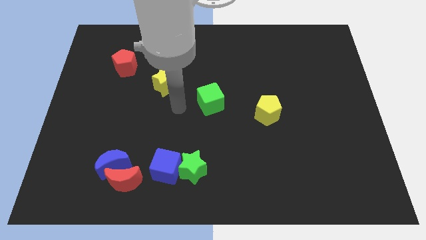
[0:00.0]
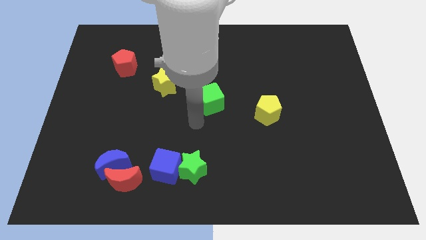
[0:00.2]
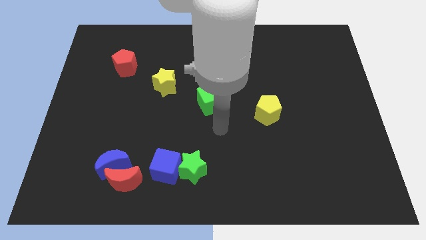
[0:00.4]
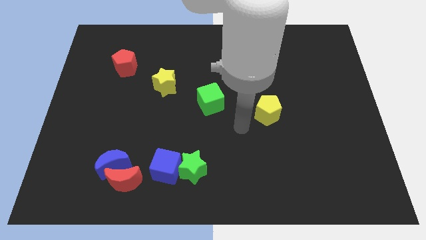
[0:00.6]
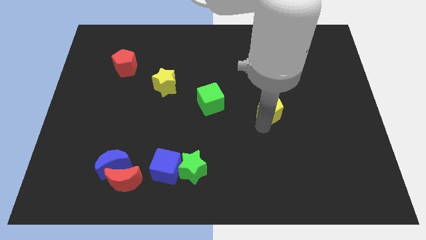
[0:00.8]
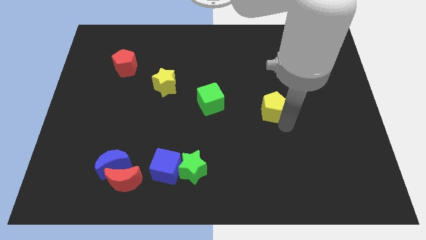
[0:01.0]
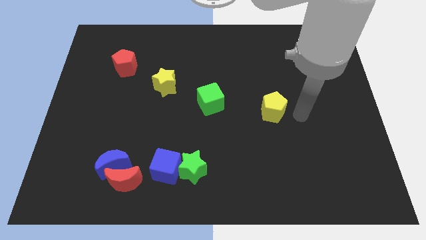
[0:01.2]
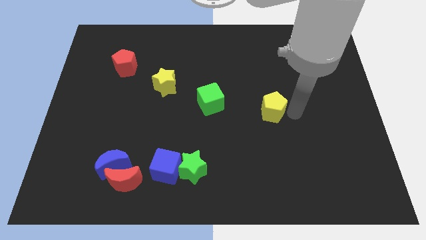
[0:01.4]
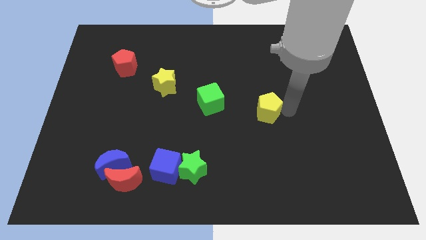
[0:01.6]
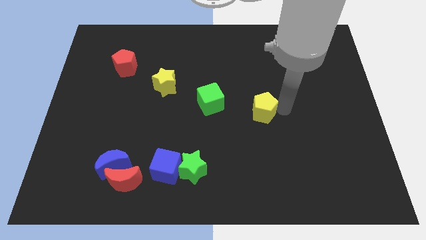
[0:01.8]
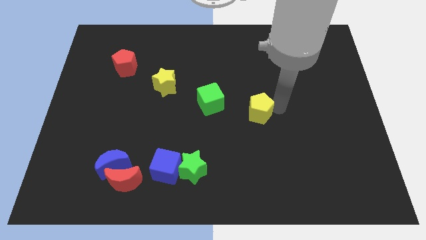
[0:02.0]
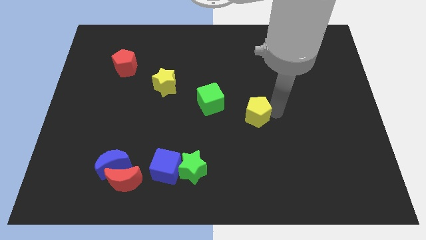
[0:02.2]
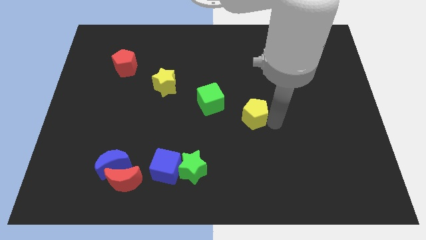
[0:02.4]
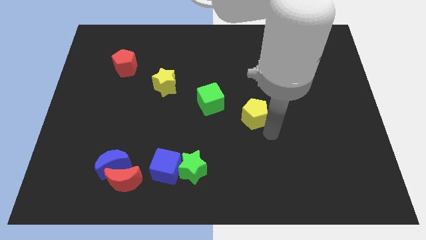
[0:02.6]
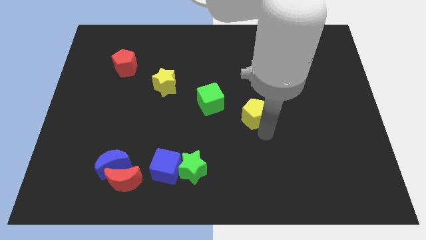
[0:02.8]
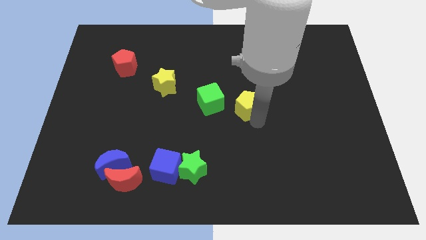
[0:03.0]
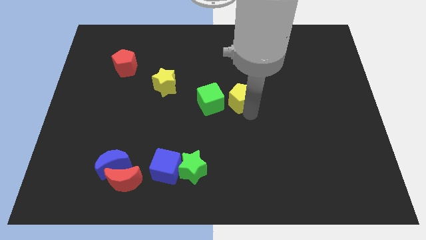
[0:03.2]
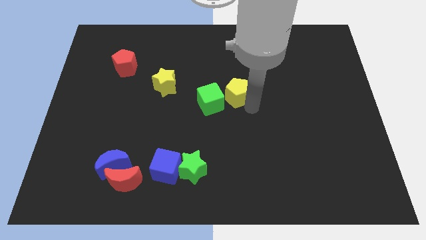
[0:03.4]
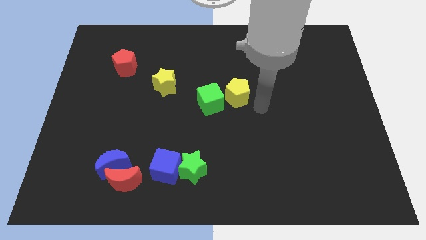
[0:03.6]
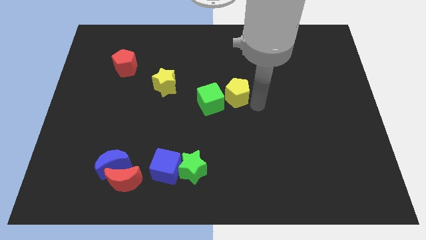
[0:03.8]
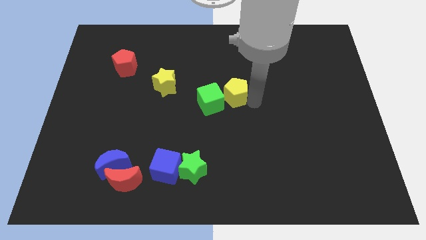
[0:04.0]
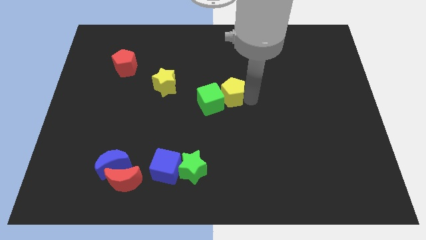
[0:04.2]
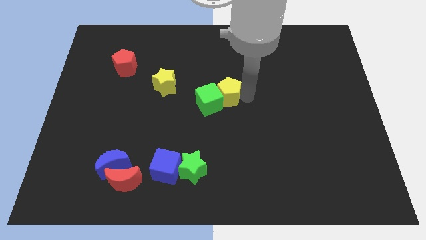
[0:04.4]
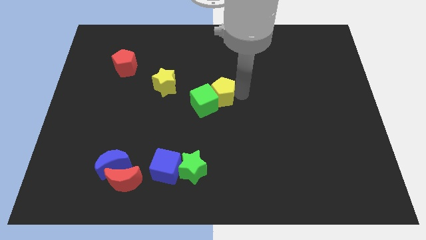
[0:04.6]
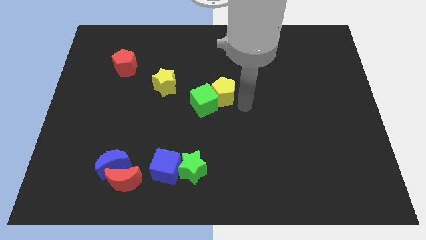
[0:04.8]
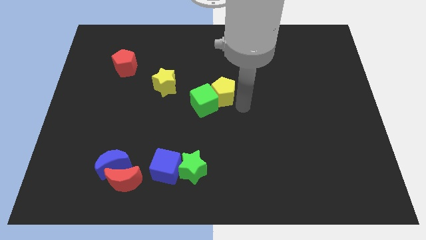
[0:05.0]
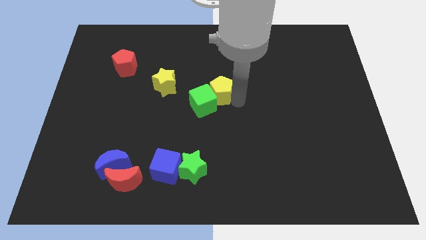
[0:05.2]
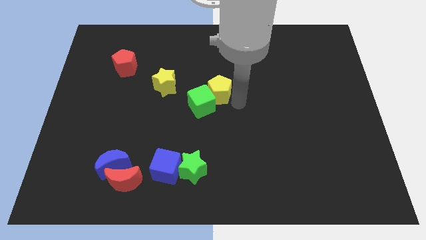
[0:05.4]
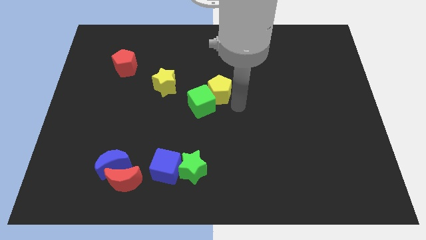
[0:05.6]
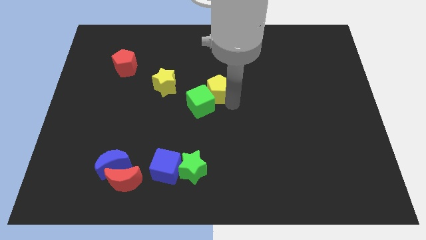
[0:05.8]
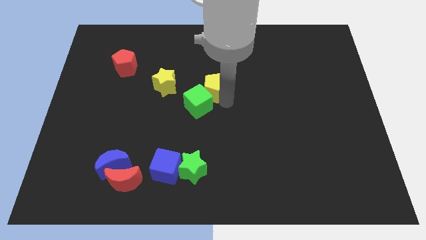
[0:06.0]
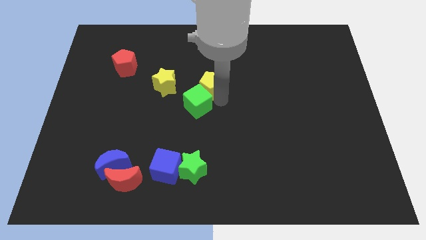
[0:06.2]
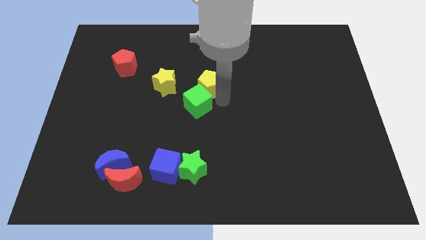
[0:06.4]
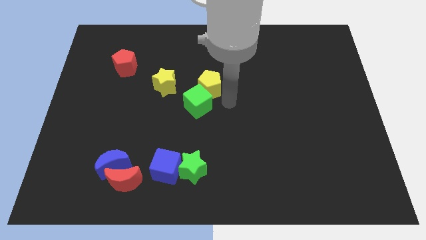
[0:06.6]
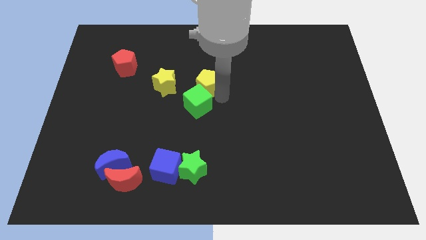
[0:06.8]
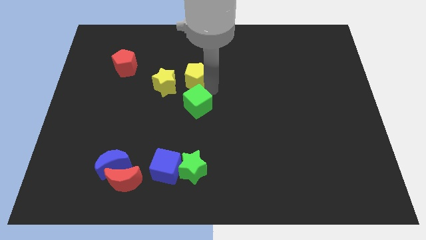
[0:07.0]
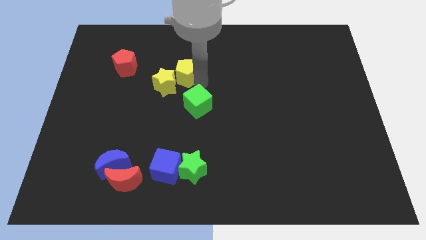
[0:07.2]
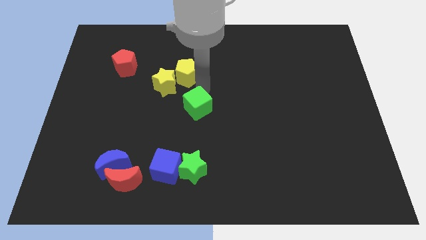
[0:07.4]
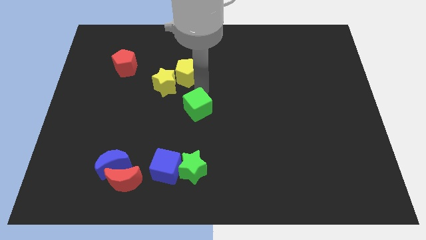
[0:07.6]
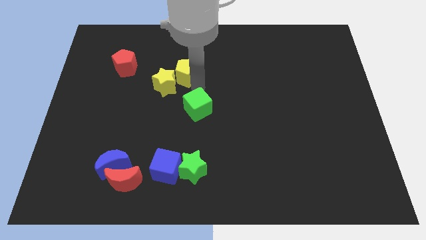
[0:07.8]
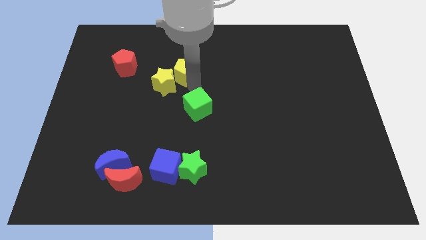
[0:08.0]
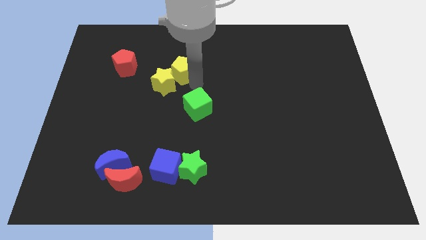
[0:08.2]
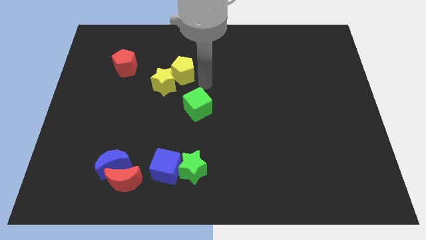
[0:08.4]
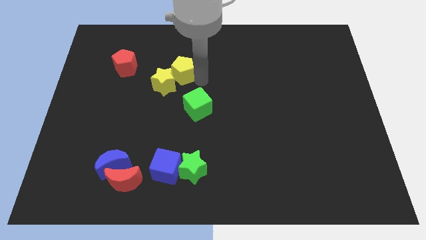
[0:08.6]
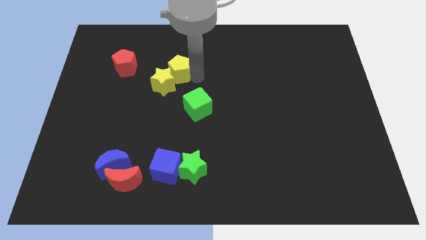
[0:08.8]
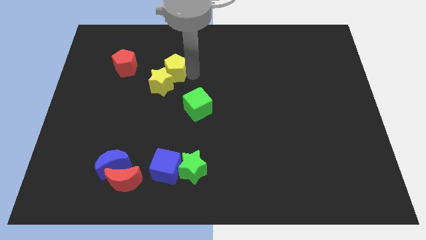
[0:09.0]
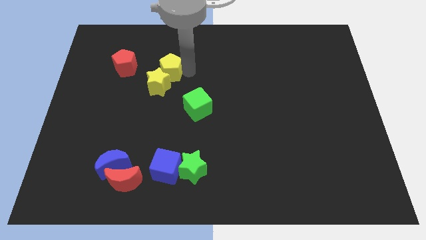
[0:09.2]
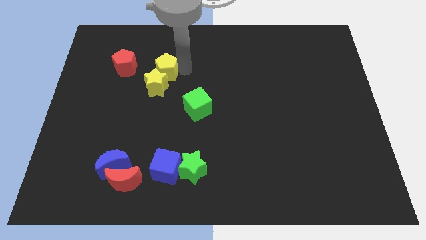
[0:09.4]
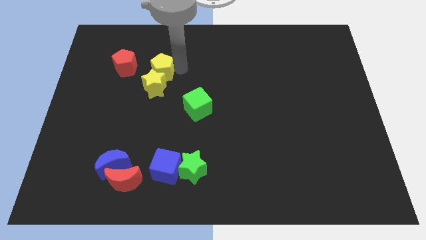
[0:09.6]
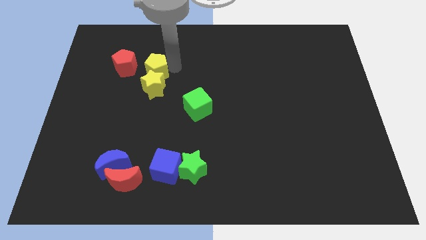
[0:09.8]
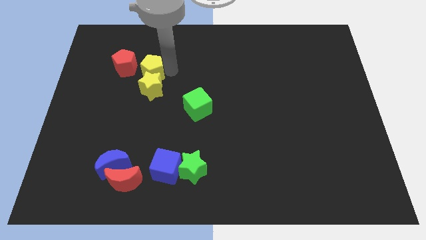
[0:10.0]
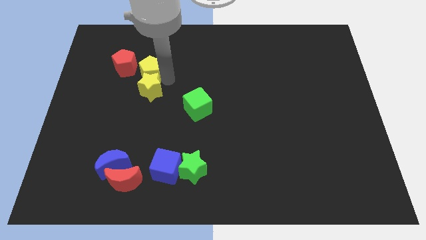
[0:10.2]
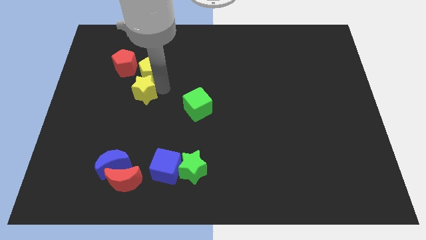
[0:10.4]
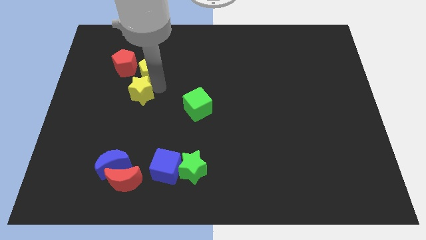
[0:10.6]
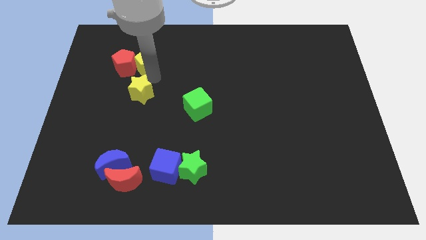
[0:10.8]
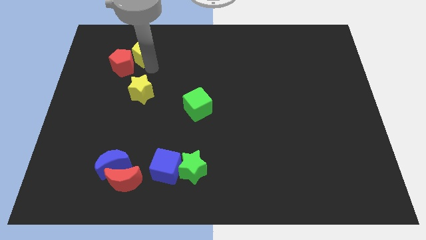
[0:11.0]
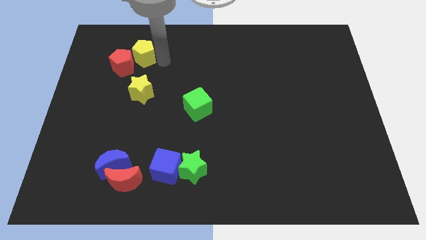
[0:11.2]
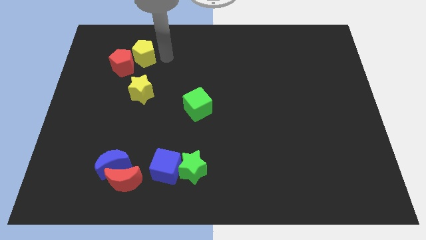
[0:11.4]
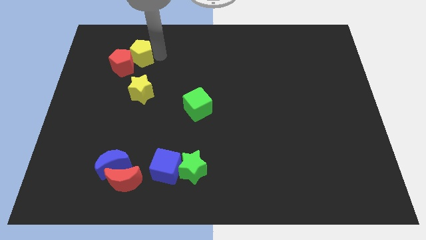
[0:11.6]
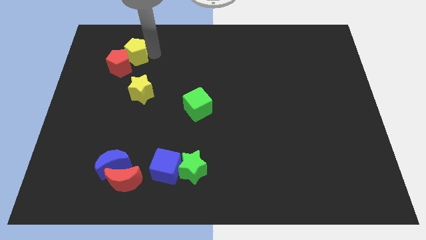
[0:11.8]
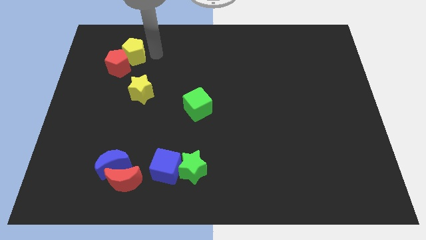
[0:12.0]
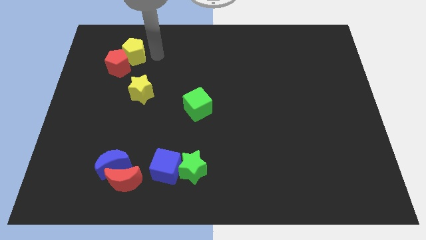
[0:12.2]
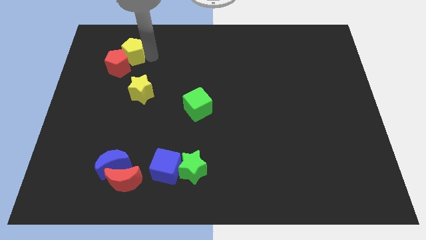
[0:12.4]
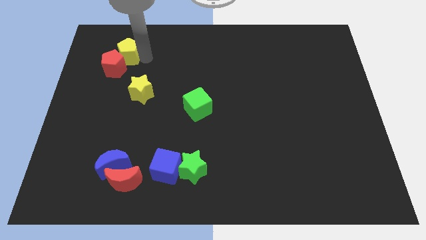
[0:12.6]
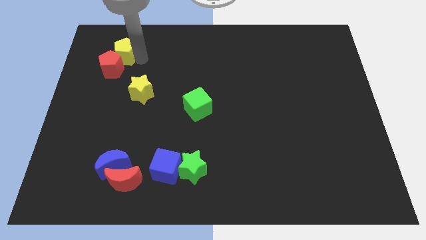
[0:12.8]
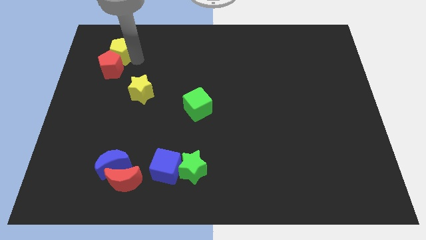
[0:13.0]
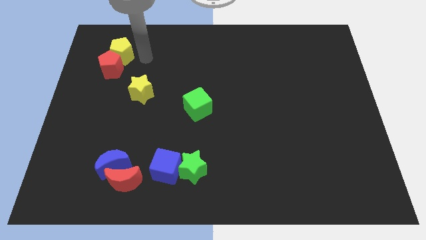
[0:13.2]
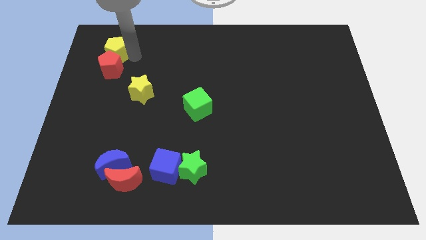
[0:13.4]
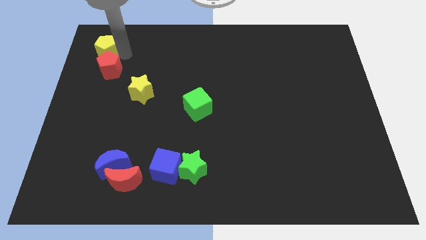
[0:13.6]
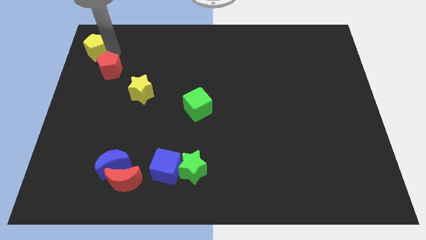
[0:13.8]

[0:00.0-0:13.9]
push the yellow pentagon to the top left
